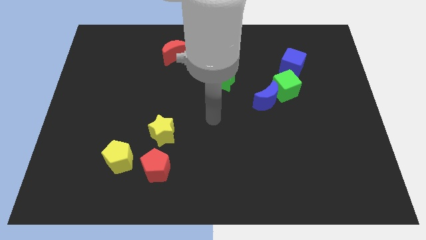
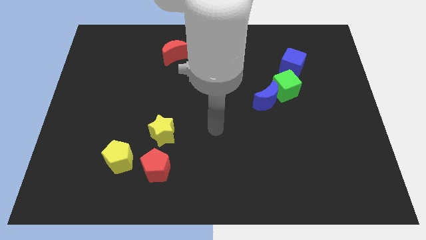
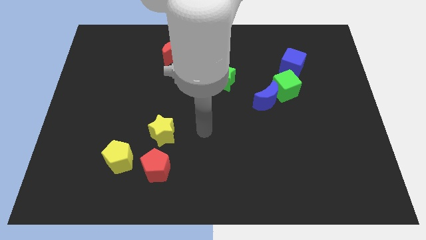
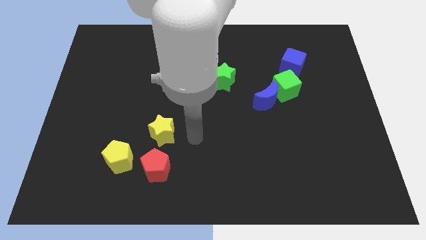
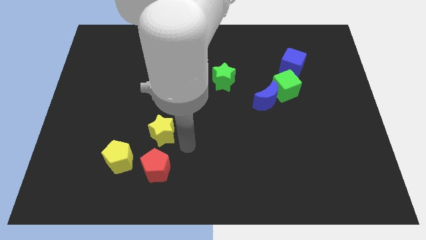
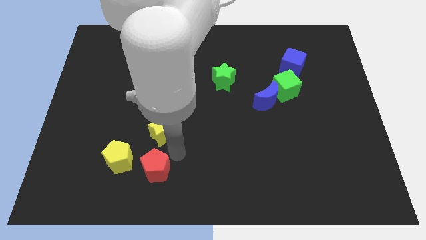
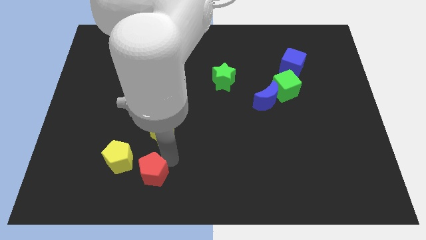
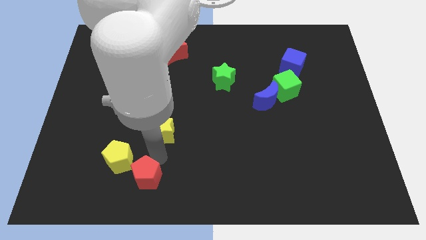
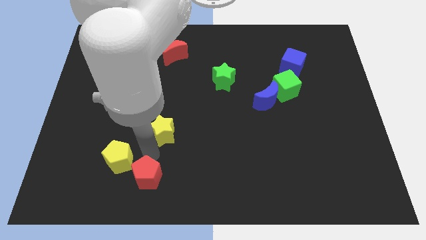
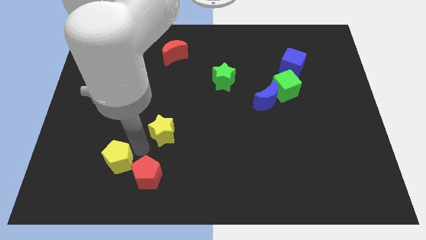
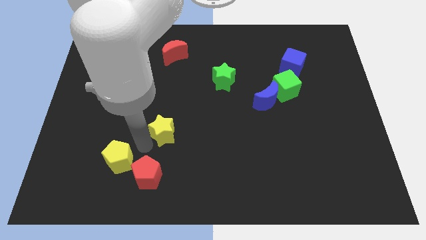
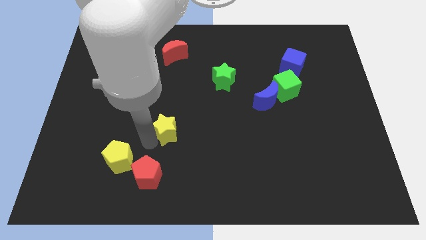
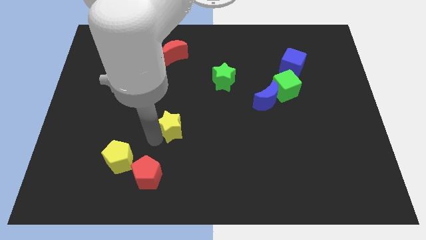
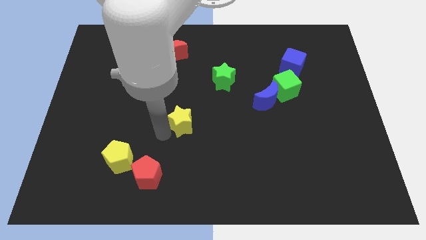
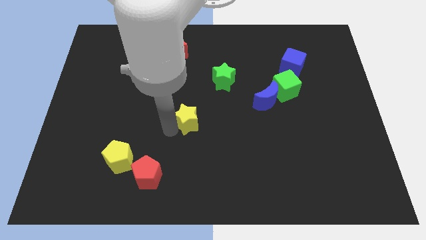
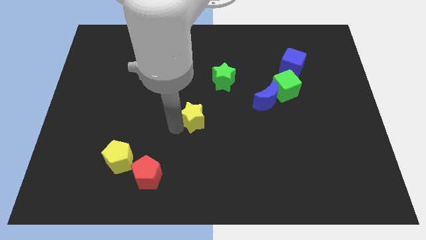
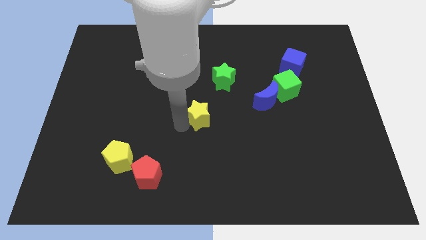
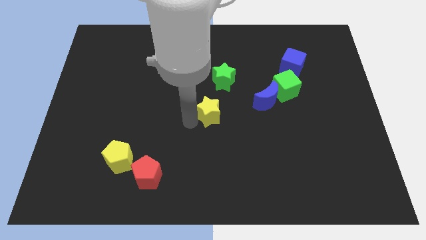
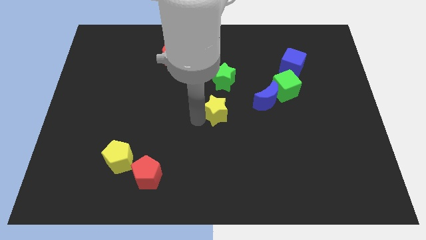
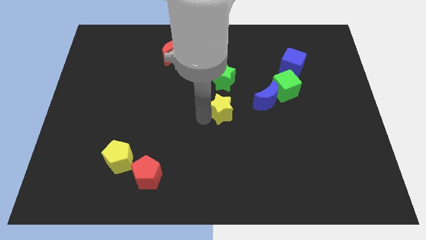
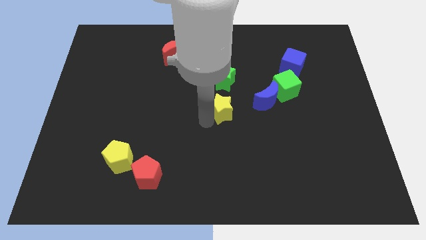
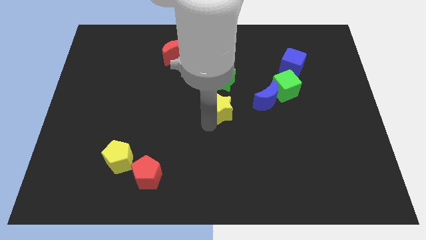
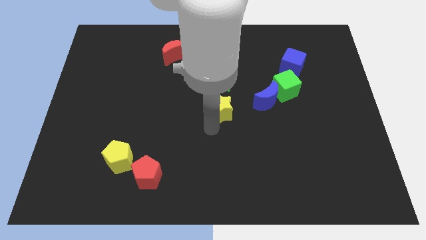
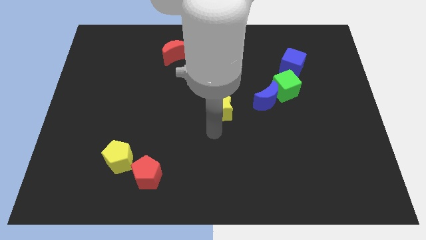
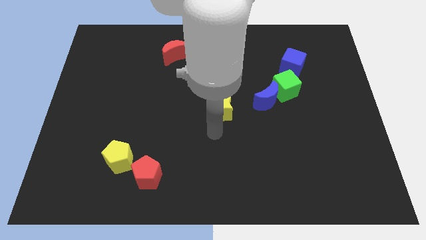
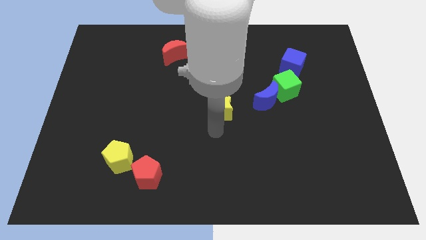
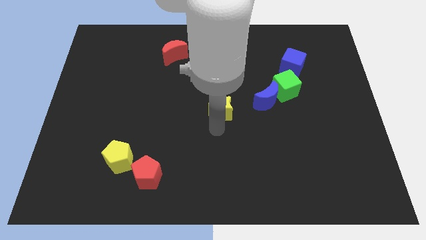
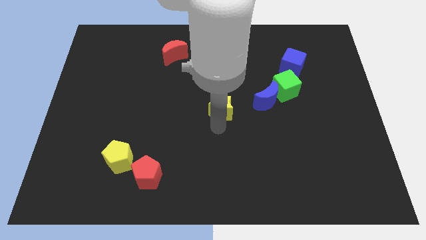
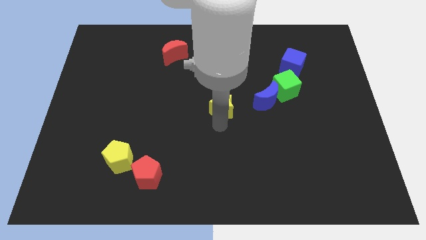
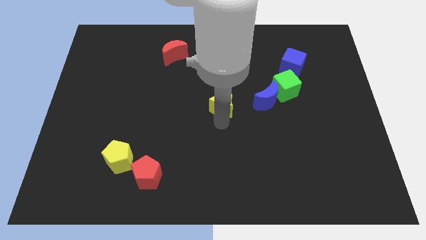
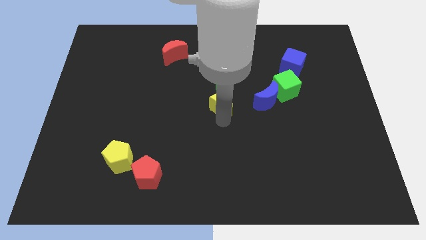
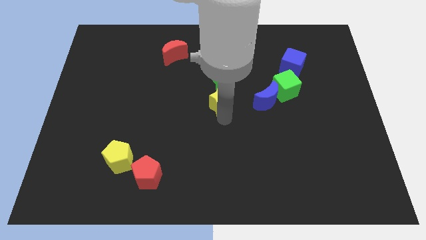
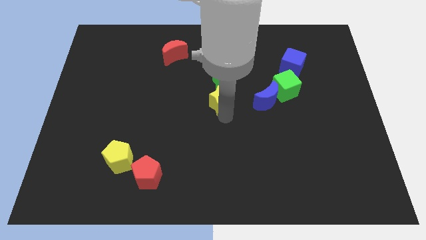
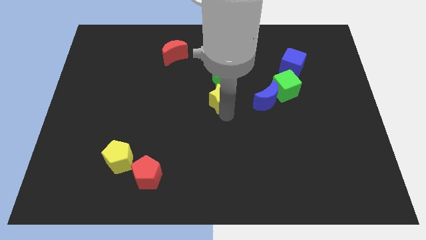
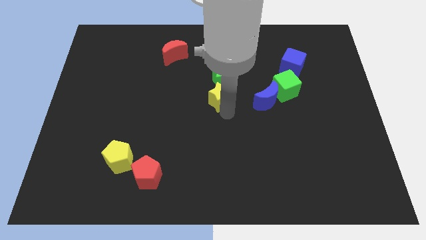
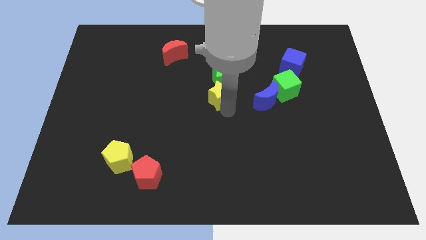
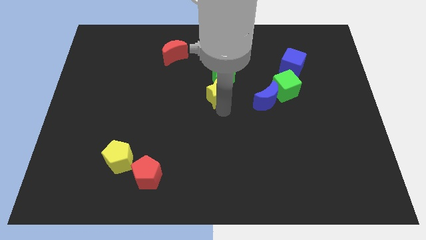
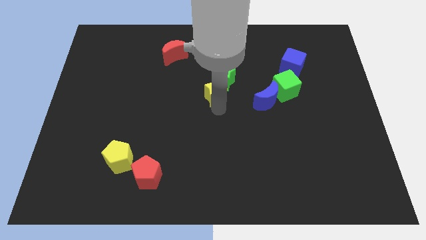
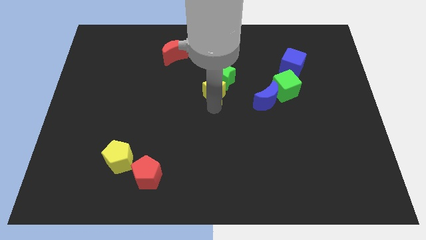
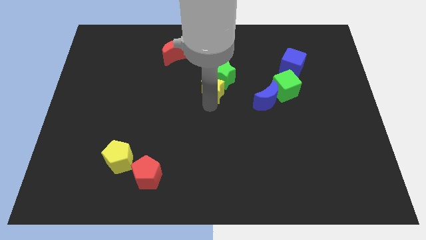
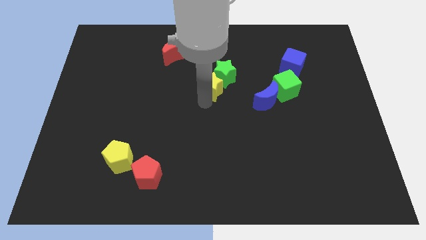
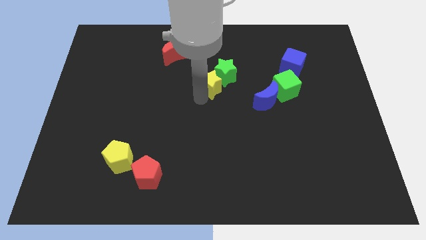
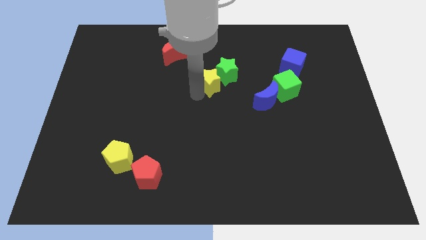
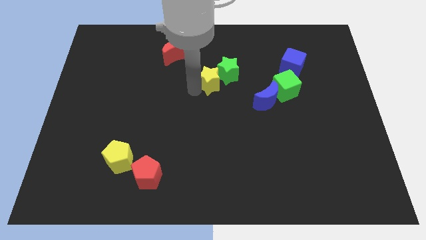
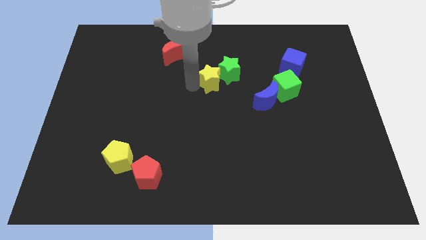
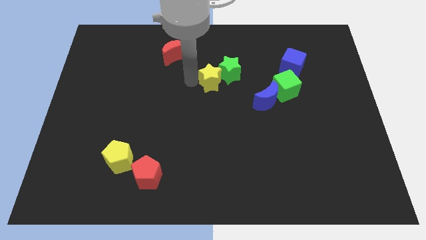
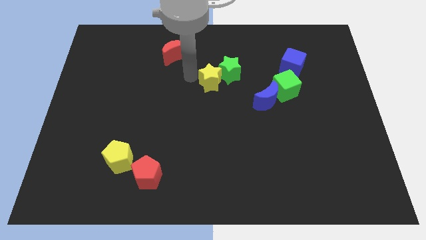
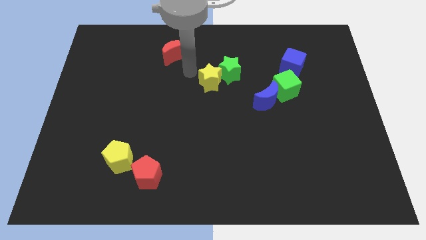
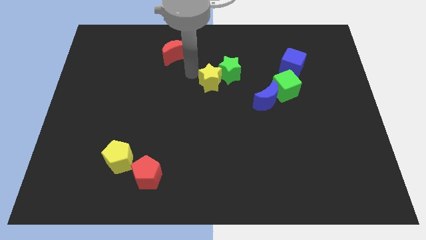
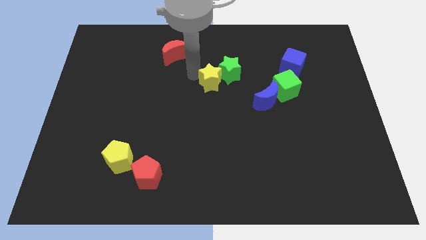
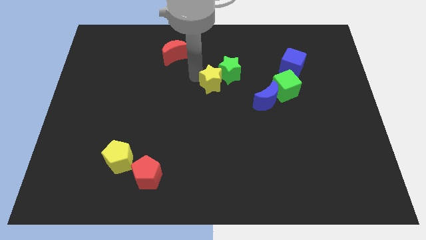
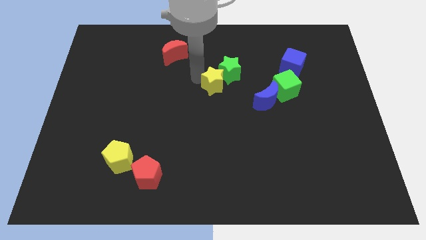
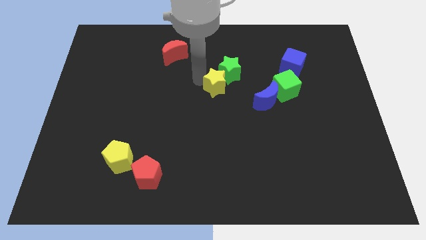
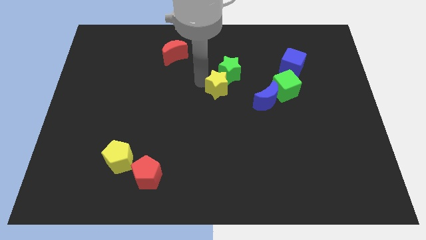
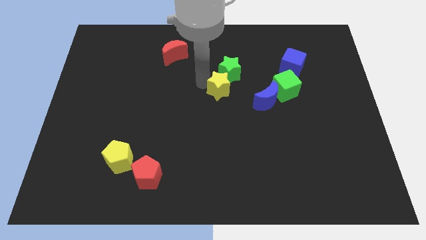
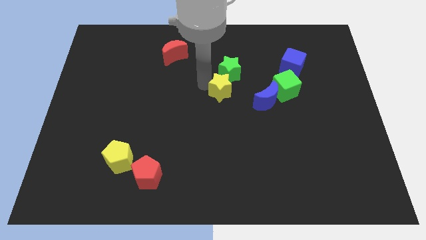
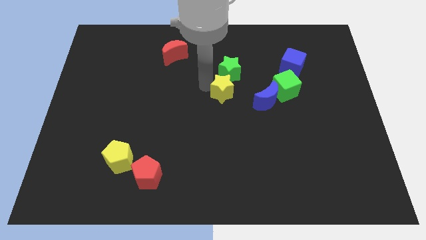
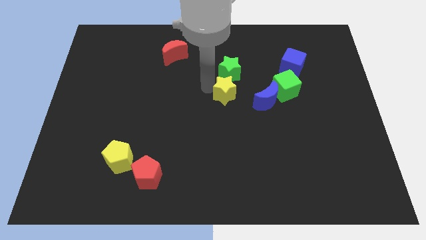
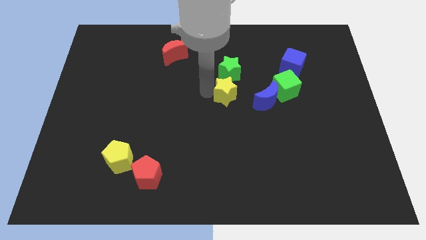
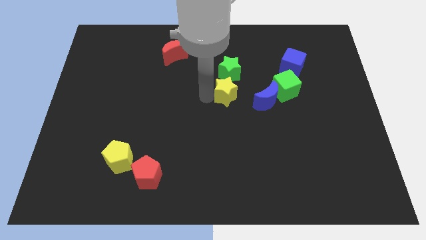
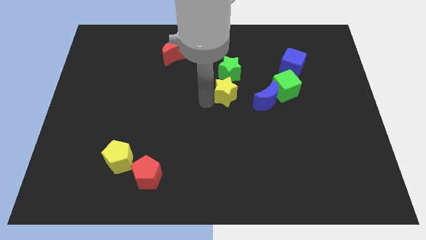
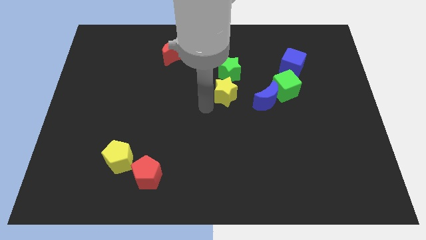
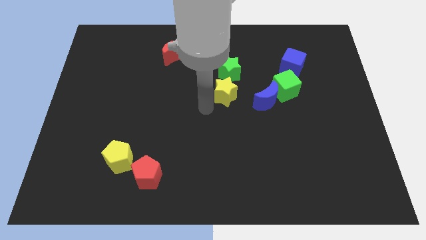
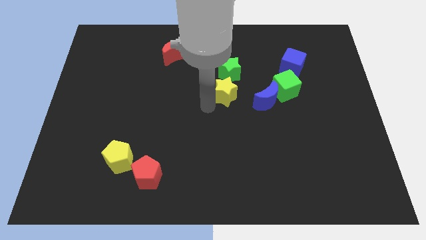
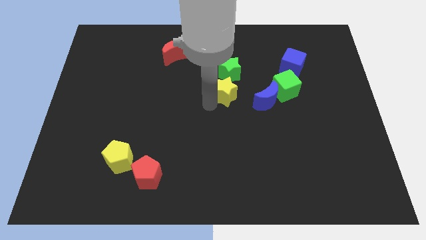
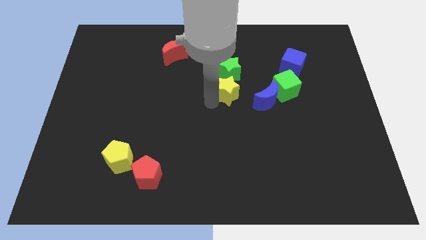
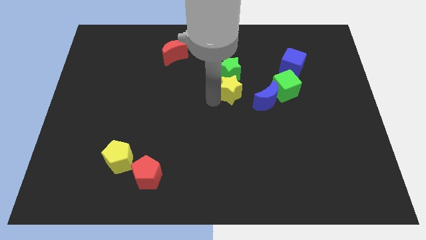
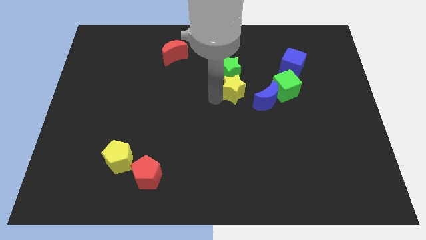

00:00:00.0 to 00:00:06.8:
move the yellow star diagonally up and right

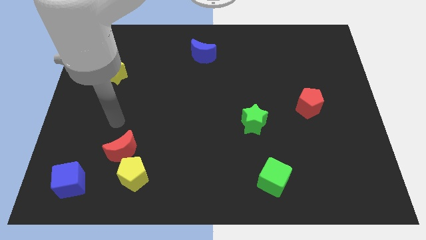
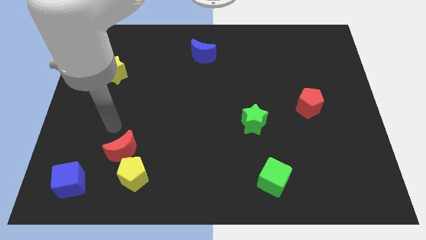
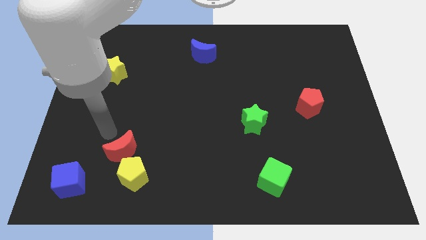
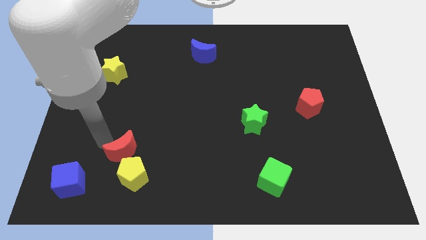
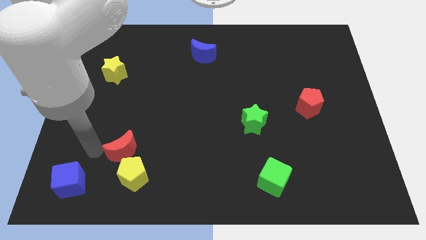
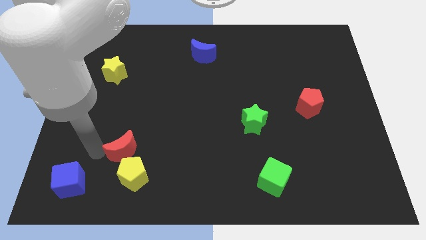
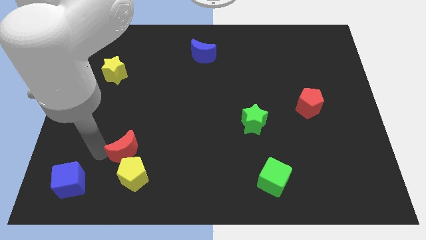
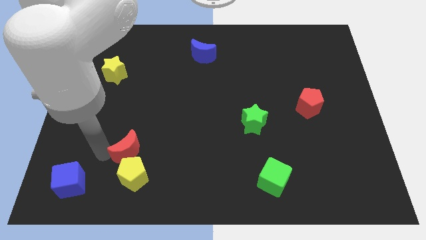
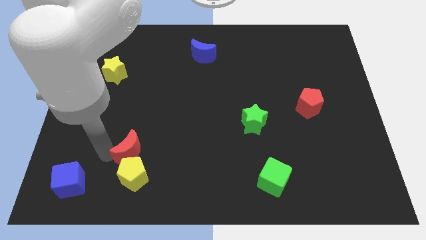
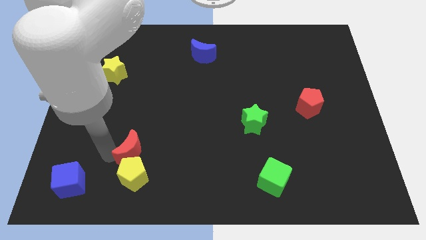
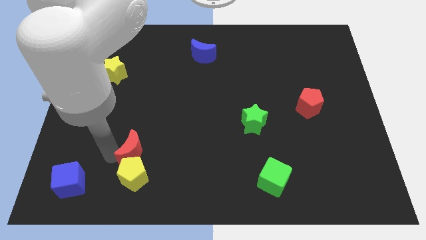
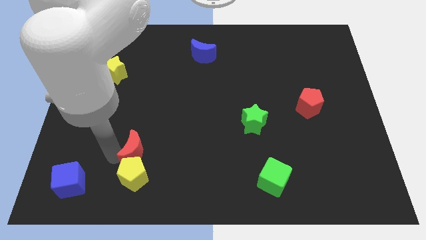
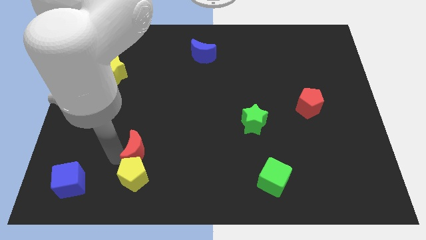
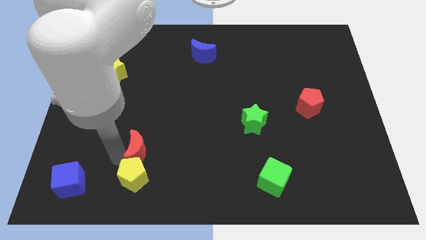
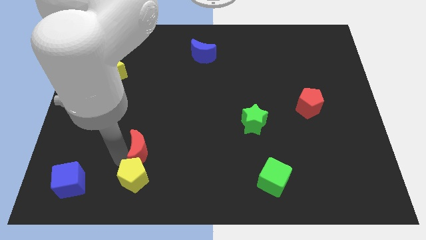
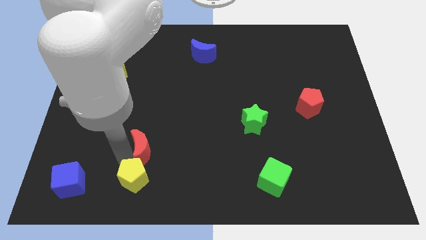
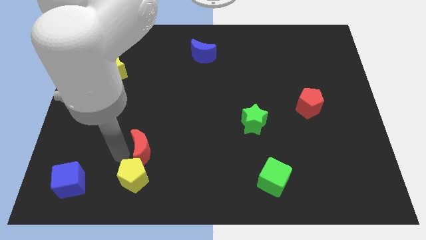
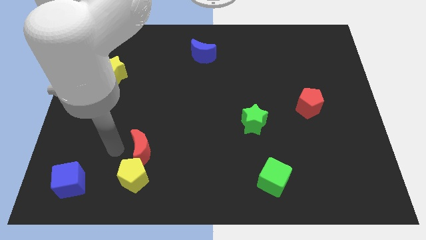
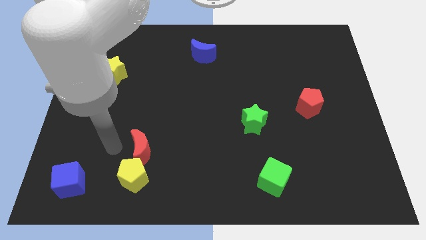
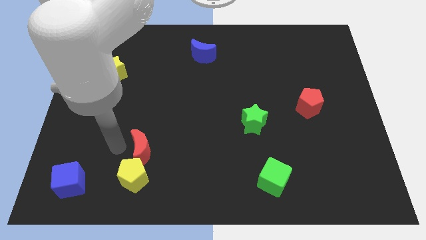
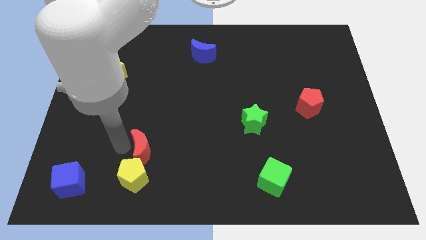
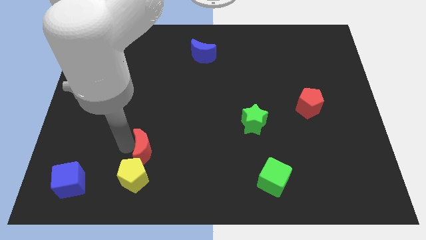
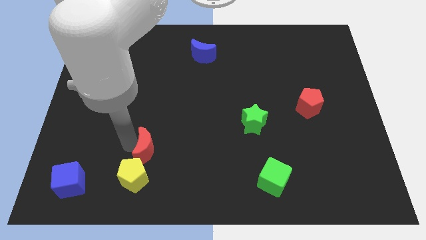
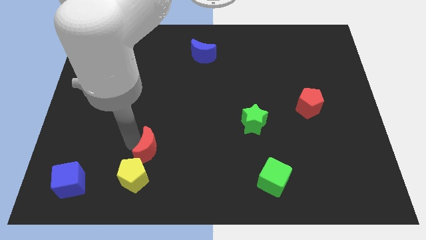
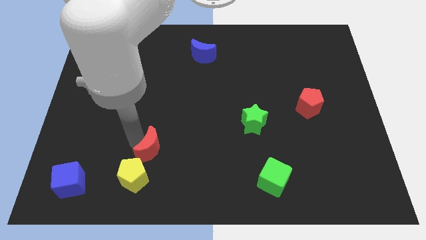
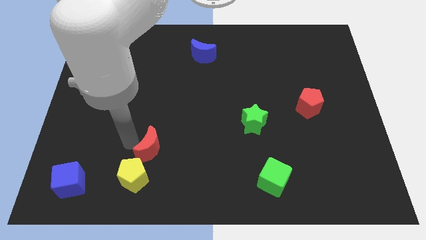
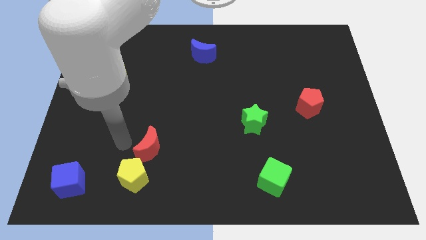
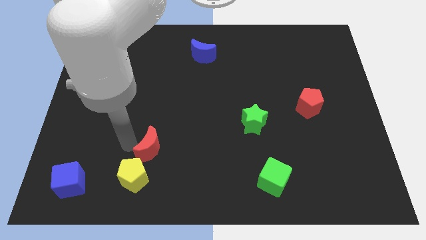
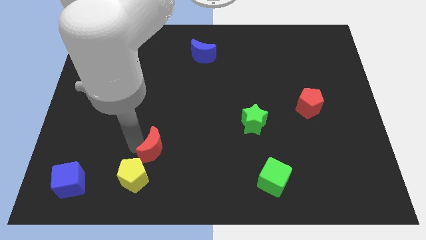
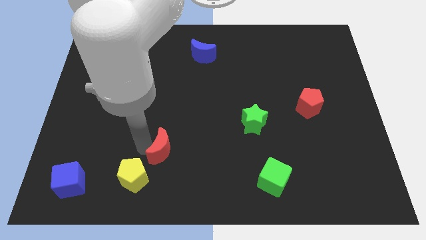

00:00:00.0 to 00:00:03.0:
slightly move the red moon to the right
